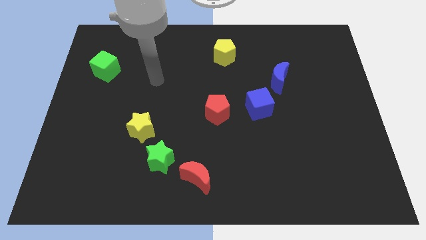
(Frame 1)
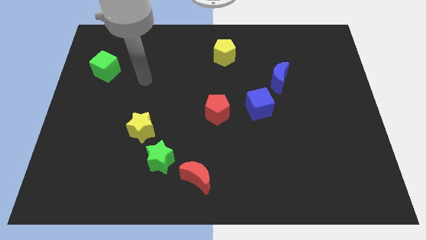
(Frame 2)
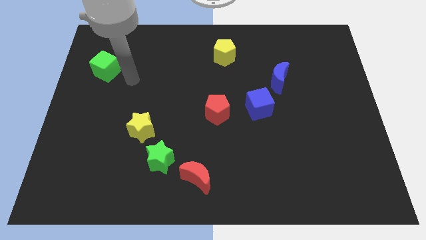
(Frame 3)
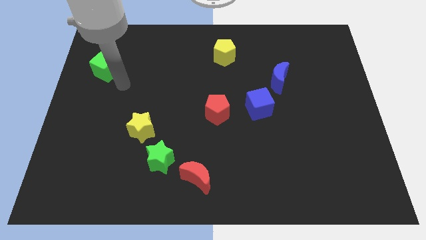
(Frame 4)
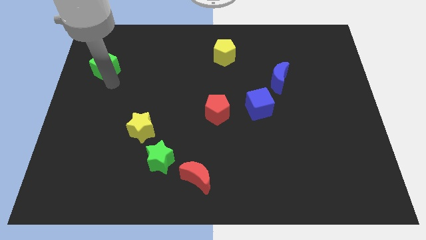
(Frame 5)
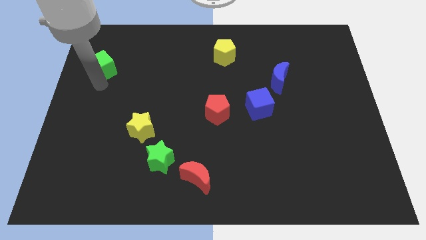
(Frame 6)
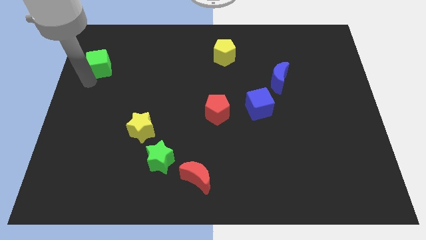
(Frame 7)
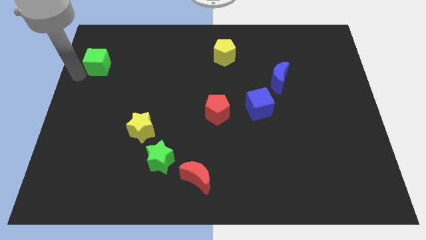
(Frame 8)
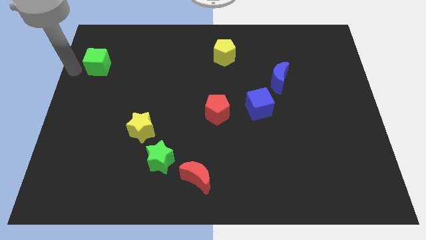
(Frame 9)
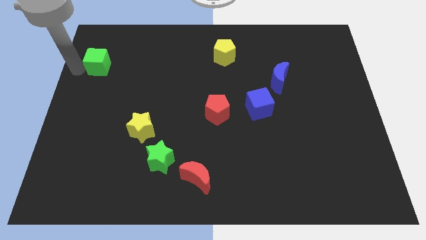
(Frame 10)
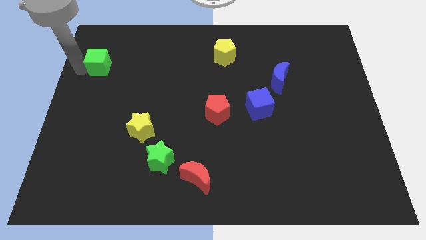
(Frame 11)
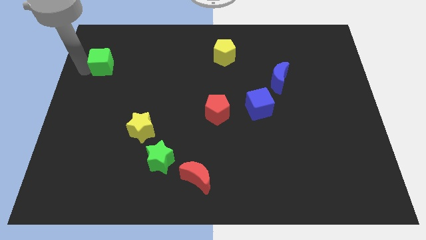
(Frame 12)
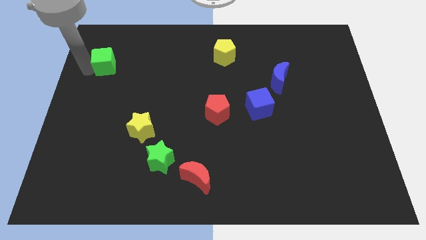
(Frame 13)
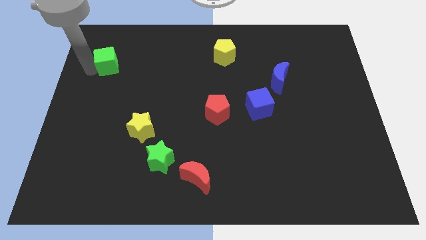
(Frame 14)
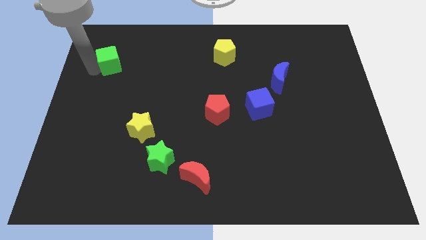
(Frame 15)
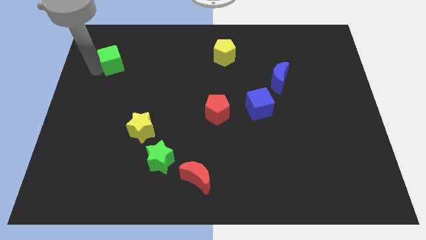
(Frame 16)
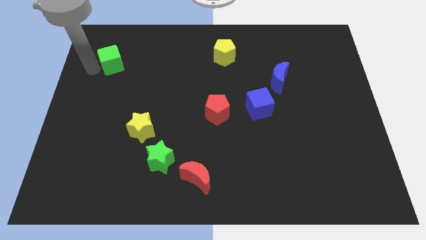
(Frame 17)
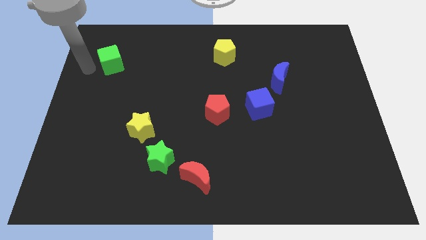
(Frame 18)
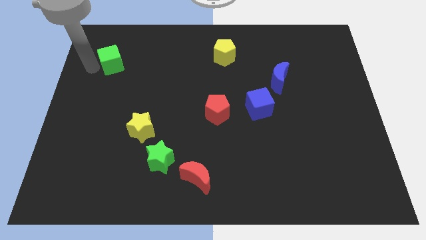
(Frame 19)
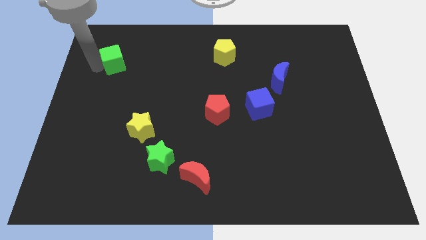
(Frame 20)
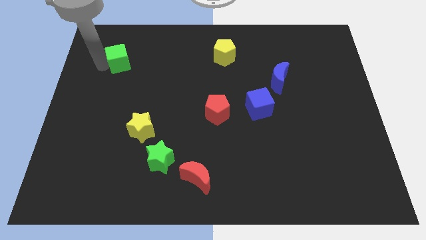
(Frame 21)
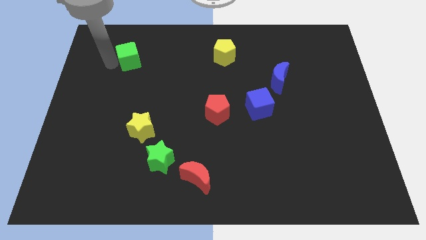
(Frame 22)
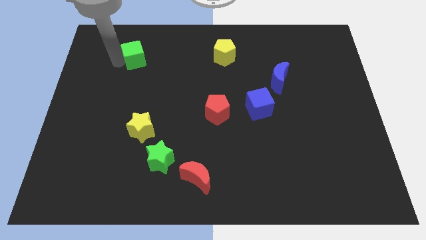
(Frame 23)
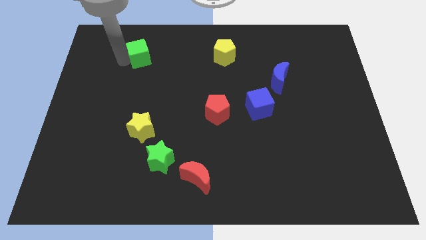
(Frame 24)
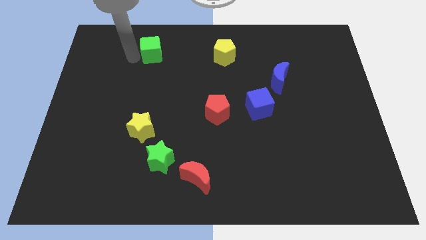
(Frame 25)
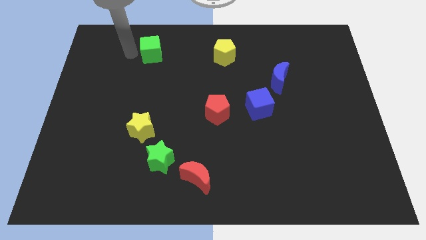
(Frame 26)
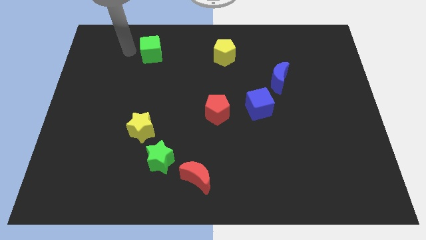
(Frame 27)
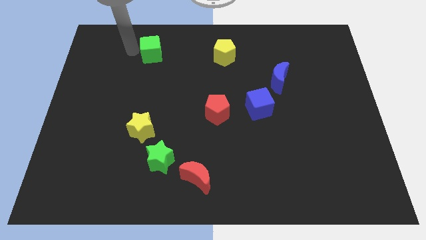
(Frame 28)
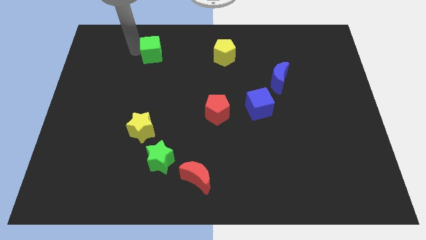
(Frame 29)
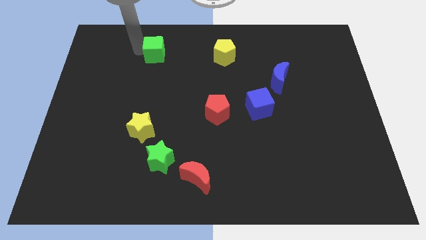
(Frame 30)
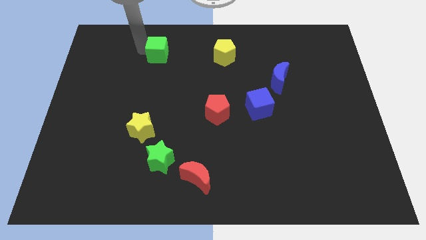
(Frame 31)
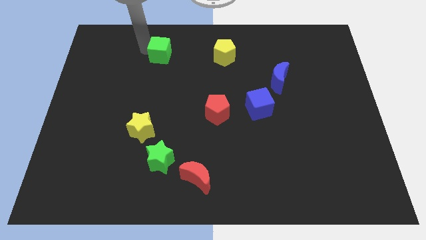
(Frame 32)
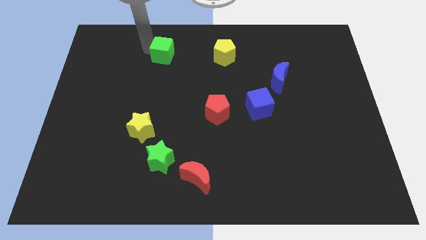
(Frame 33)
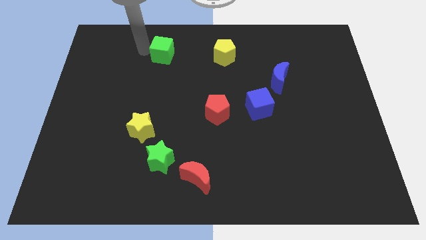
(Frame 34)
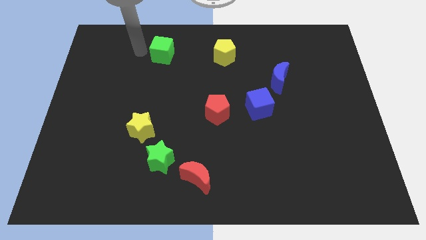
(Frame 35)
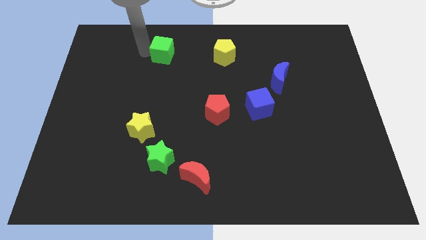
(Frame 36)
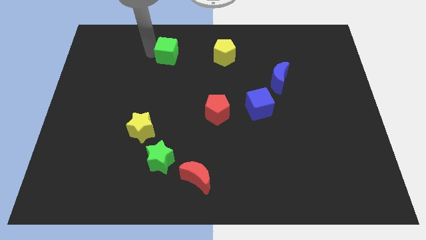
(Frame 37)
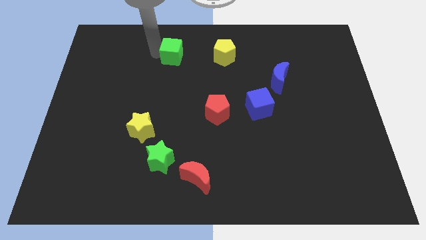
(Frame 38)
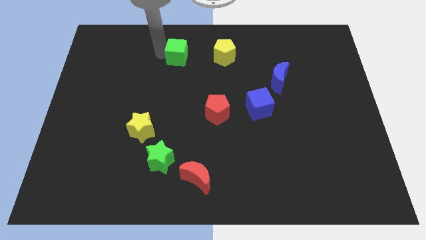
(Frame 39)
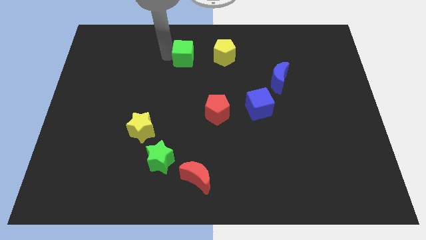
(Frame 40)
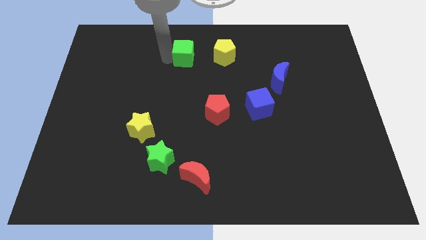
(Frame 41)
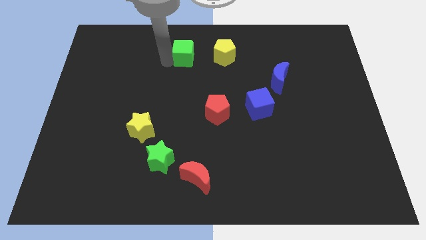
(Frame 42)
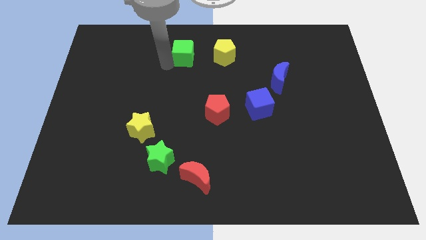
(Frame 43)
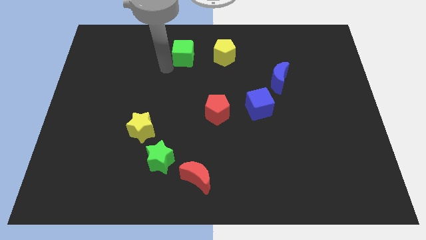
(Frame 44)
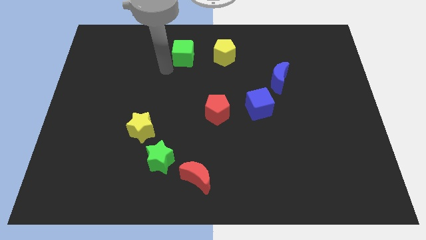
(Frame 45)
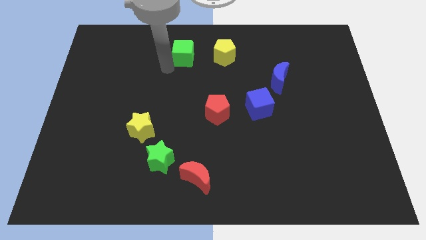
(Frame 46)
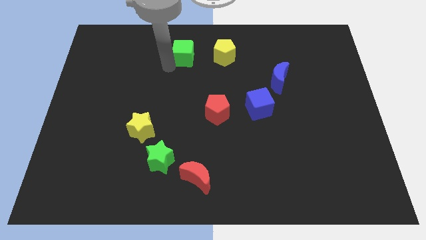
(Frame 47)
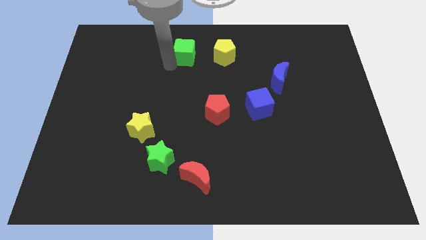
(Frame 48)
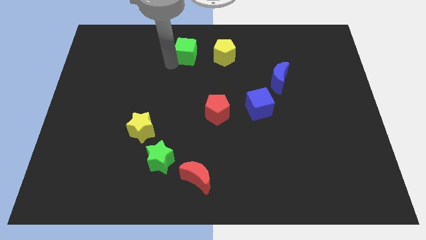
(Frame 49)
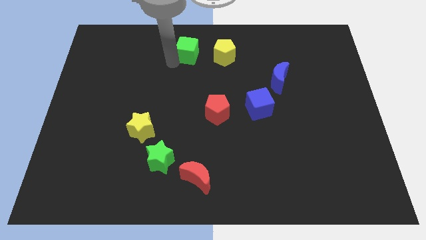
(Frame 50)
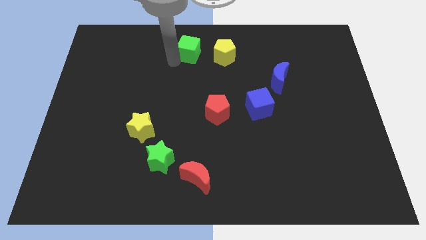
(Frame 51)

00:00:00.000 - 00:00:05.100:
slide the green cube to the towards your base

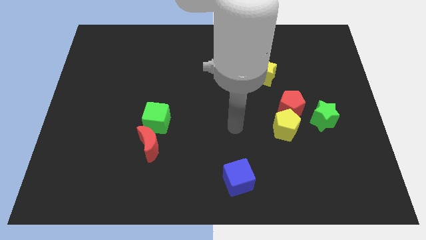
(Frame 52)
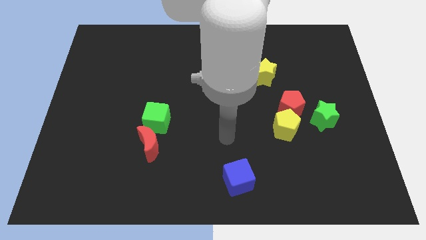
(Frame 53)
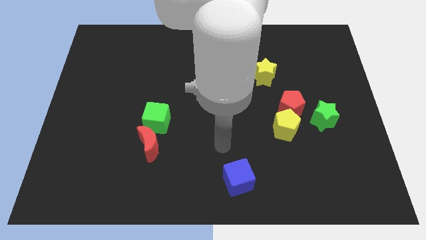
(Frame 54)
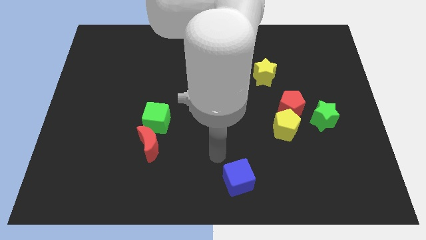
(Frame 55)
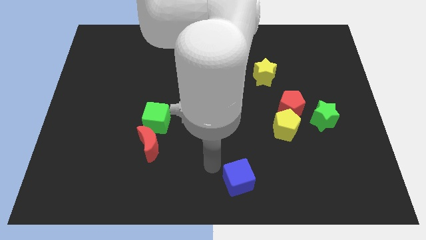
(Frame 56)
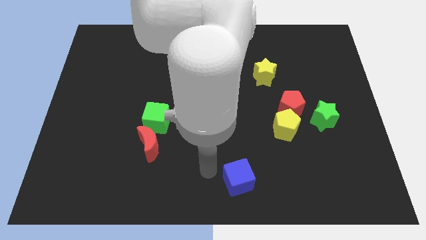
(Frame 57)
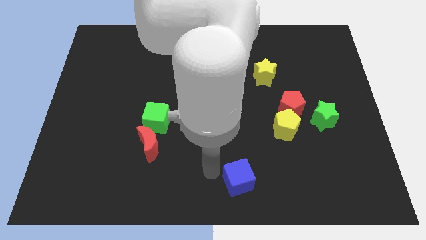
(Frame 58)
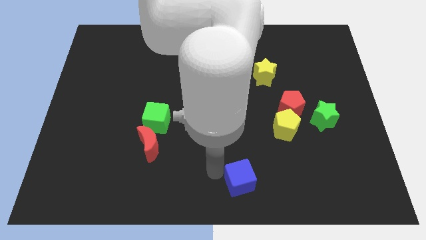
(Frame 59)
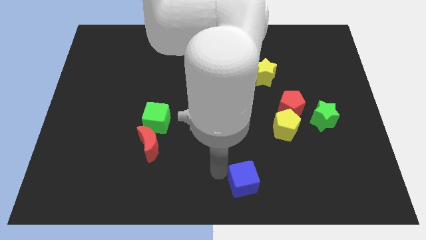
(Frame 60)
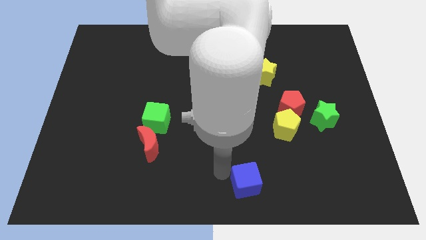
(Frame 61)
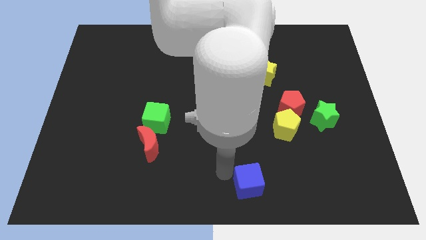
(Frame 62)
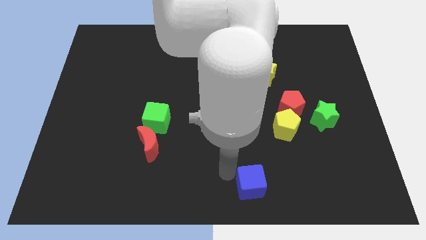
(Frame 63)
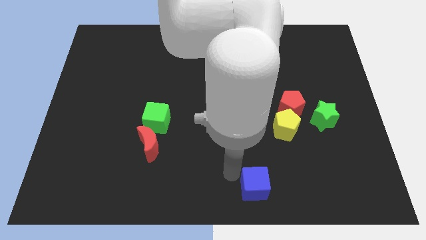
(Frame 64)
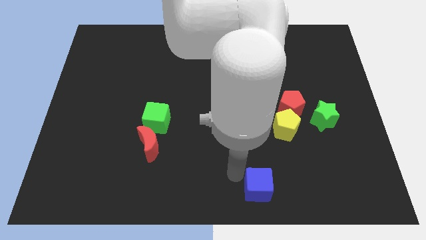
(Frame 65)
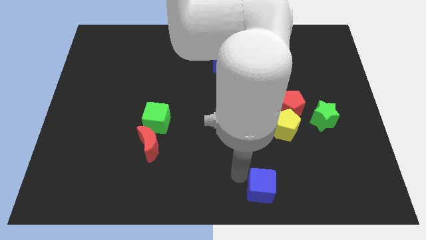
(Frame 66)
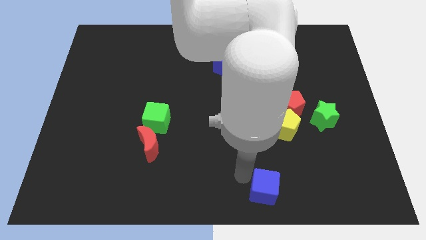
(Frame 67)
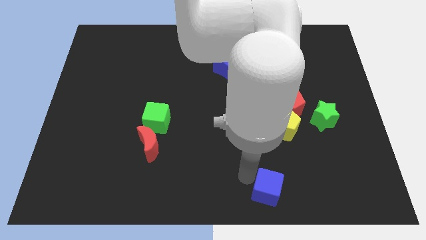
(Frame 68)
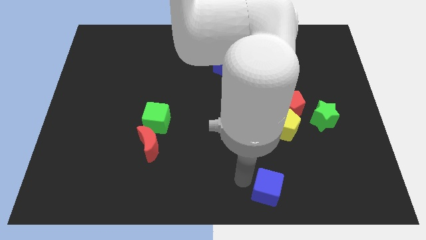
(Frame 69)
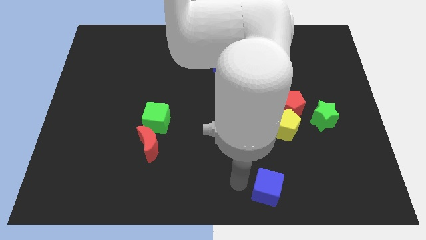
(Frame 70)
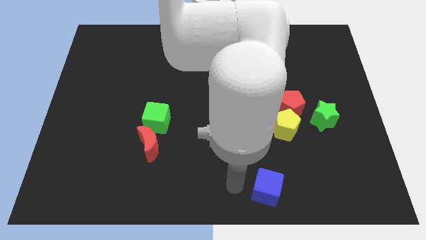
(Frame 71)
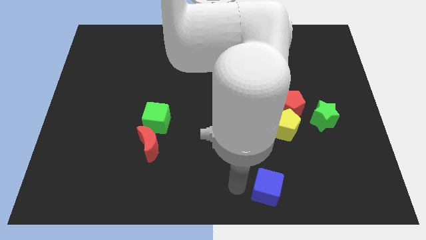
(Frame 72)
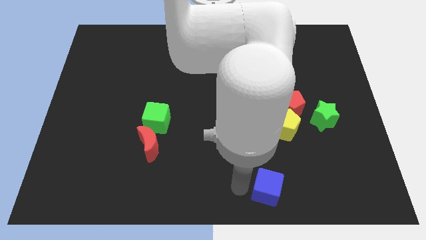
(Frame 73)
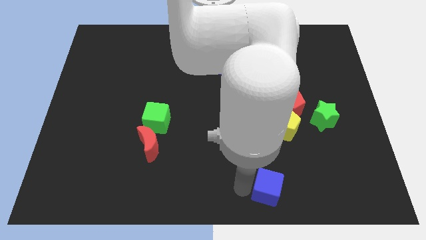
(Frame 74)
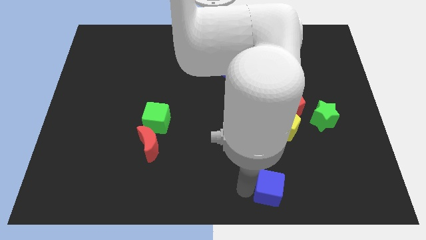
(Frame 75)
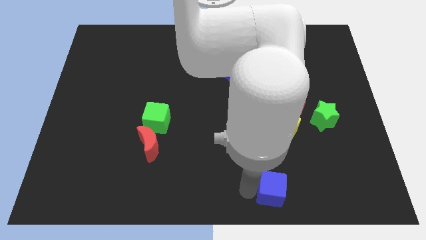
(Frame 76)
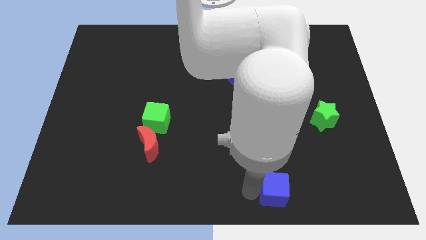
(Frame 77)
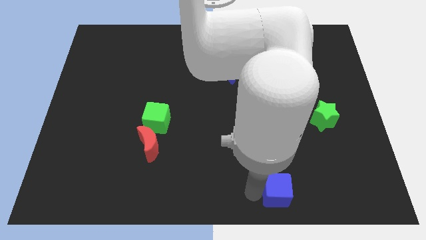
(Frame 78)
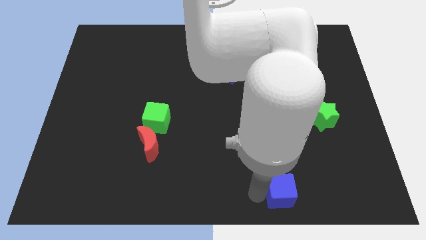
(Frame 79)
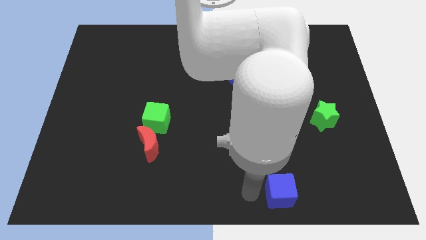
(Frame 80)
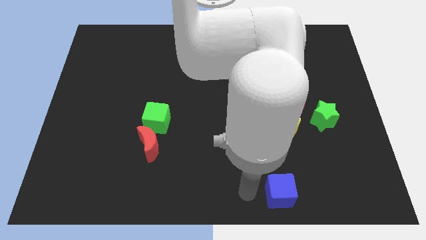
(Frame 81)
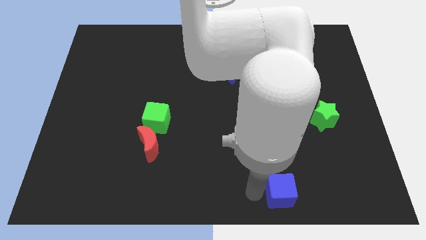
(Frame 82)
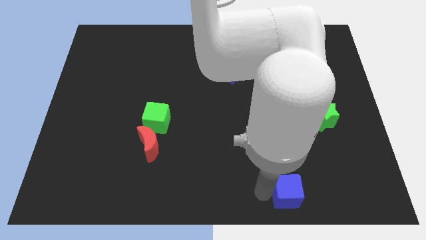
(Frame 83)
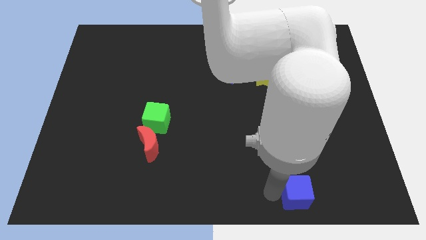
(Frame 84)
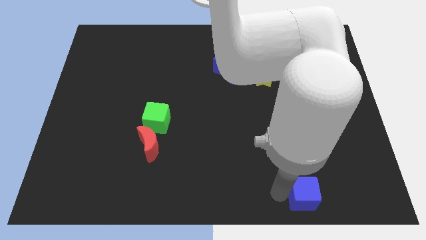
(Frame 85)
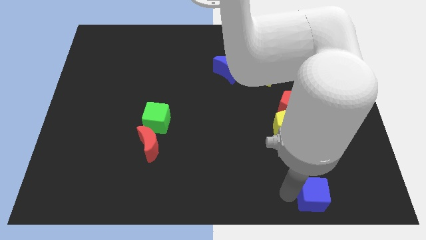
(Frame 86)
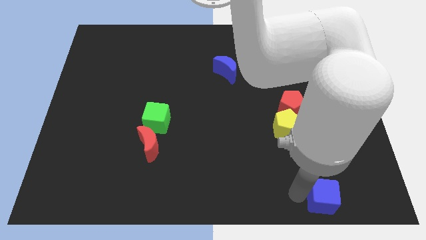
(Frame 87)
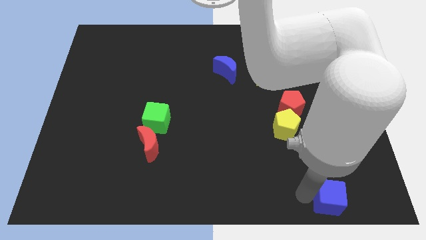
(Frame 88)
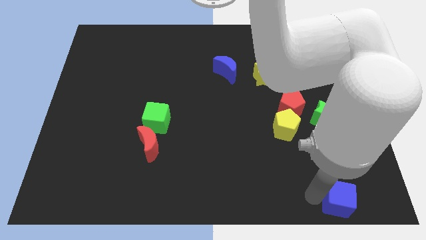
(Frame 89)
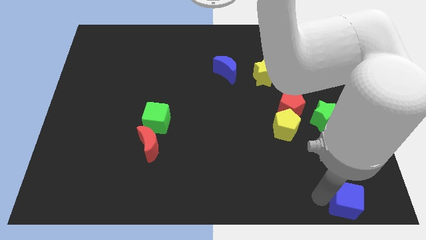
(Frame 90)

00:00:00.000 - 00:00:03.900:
push the blue cube to the lower right corner
